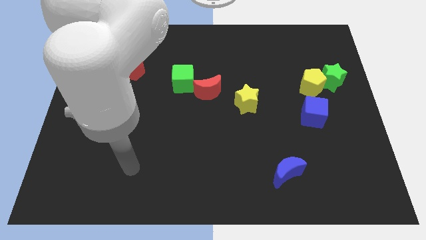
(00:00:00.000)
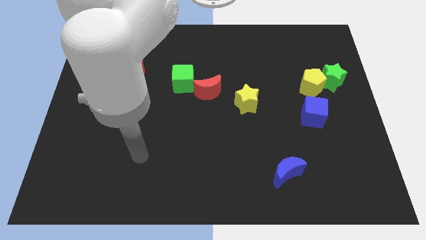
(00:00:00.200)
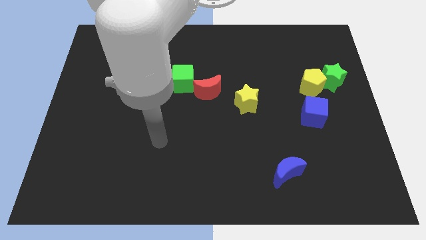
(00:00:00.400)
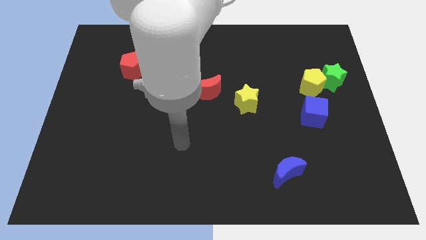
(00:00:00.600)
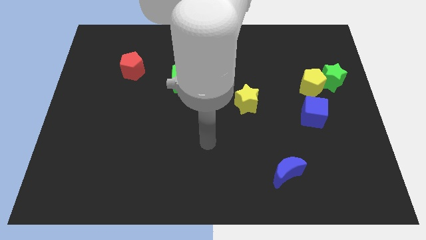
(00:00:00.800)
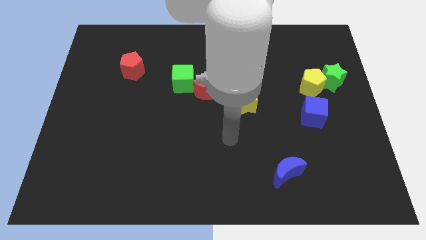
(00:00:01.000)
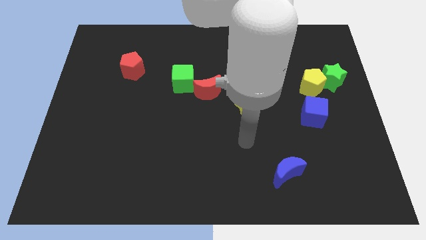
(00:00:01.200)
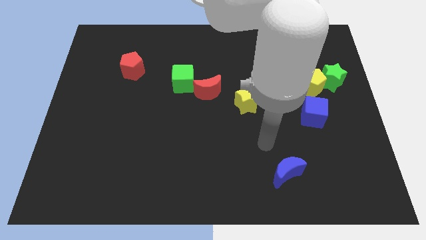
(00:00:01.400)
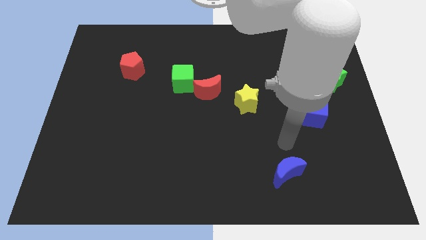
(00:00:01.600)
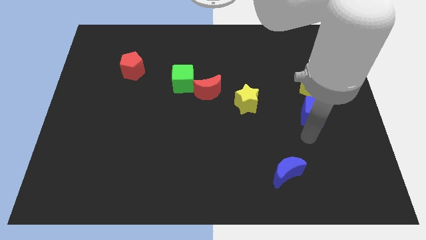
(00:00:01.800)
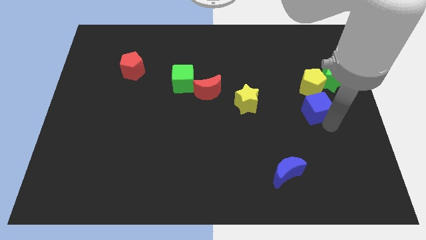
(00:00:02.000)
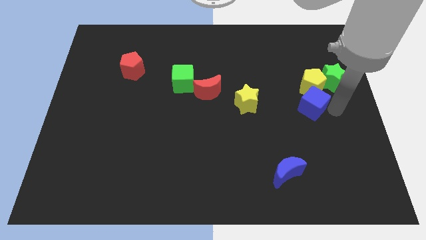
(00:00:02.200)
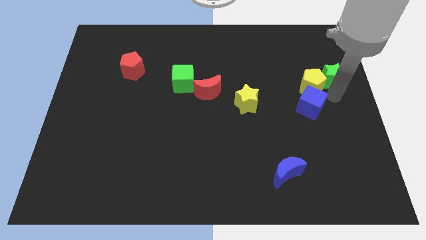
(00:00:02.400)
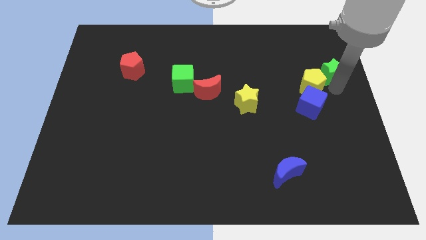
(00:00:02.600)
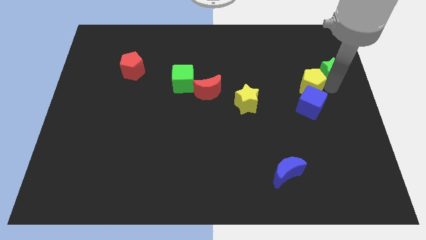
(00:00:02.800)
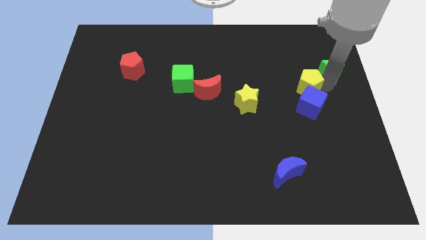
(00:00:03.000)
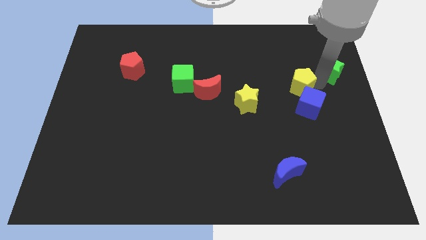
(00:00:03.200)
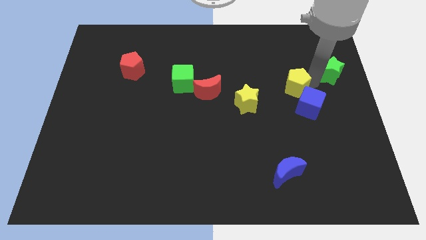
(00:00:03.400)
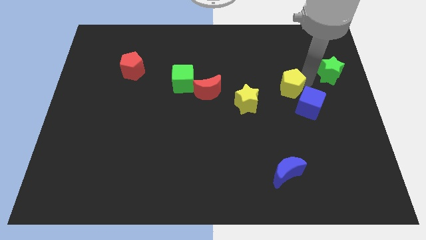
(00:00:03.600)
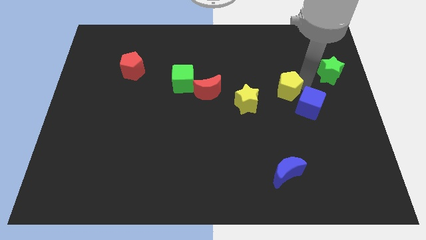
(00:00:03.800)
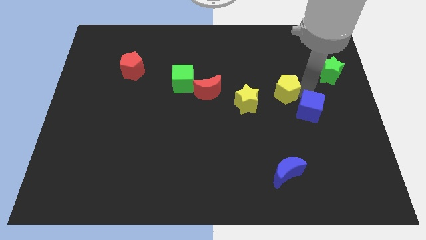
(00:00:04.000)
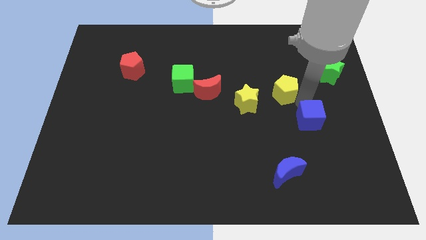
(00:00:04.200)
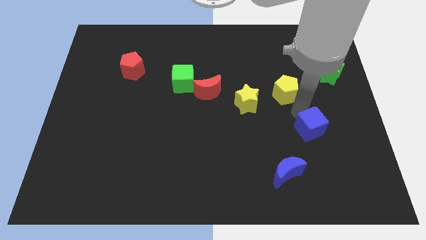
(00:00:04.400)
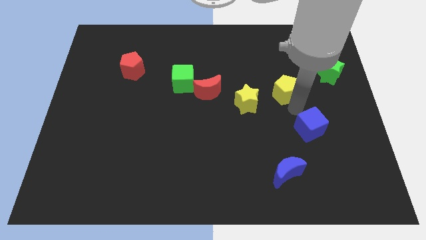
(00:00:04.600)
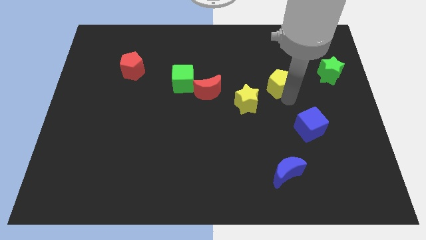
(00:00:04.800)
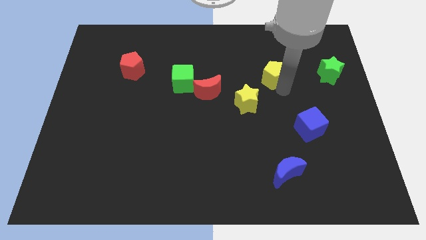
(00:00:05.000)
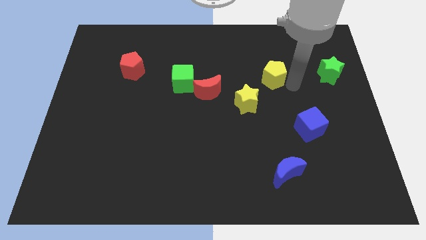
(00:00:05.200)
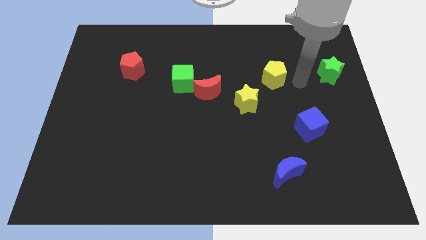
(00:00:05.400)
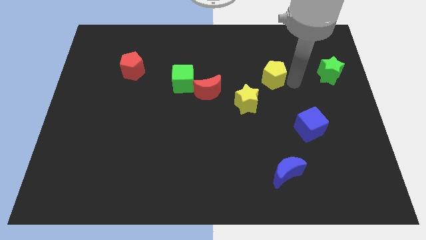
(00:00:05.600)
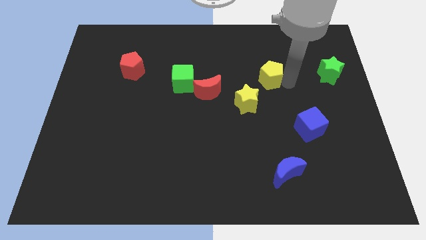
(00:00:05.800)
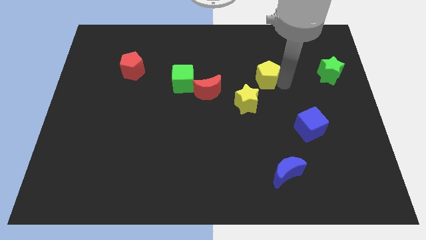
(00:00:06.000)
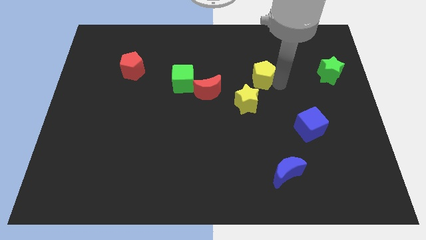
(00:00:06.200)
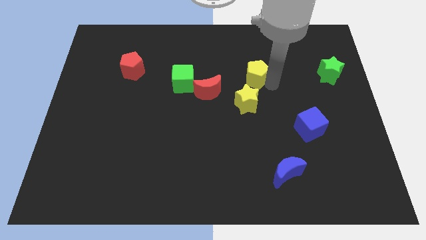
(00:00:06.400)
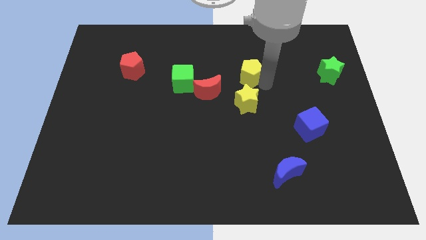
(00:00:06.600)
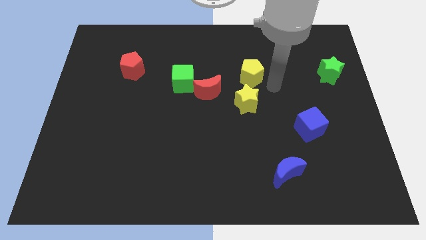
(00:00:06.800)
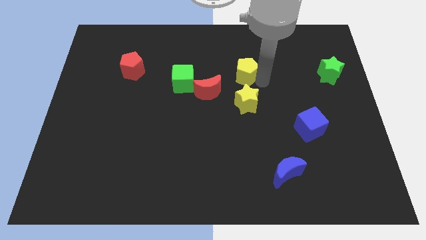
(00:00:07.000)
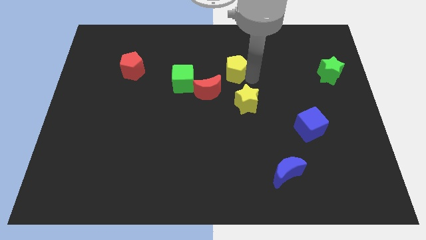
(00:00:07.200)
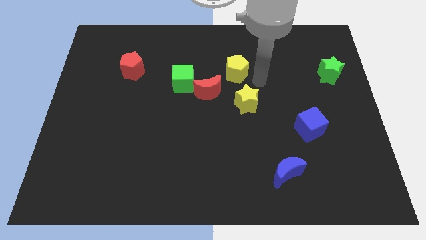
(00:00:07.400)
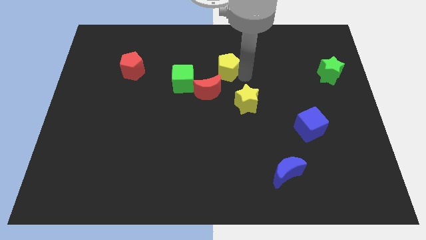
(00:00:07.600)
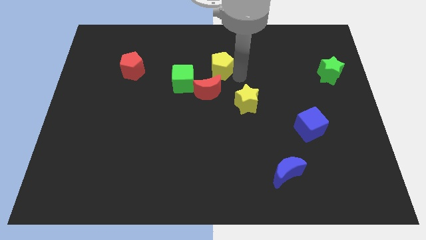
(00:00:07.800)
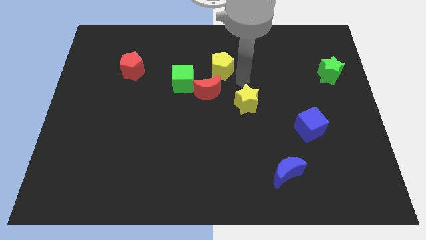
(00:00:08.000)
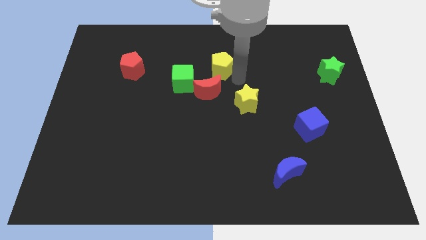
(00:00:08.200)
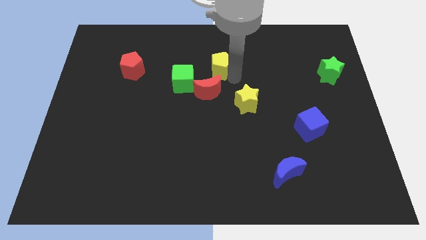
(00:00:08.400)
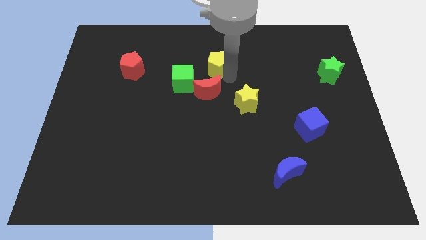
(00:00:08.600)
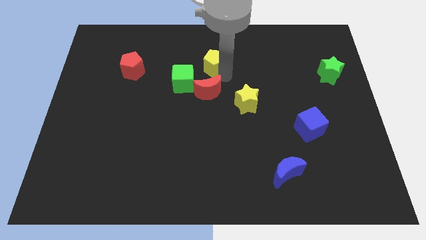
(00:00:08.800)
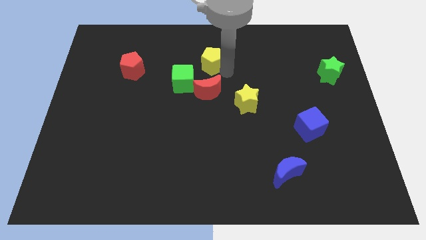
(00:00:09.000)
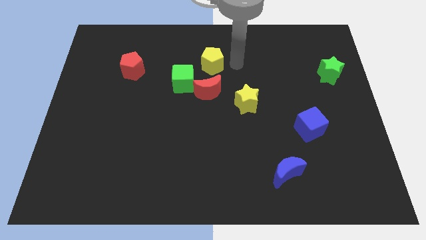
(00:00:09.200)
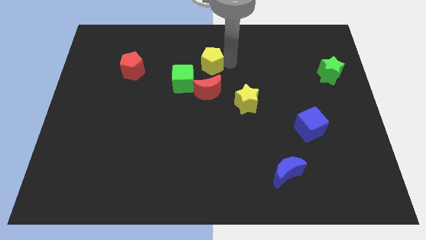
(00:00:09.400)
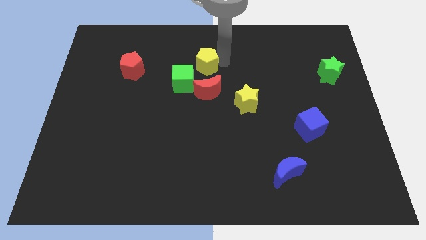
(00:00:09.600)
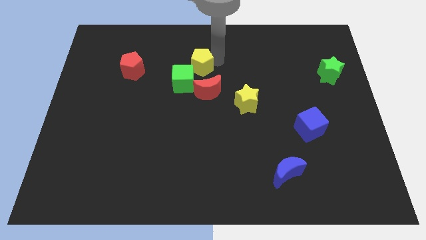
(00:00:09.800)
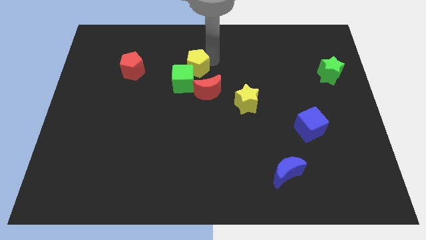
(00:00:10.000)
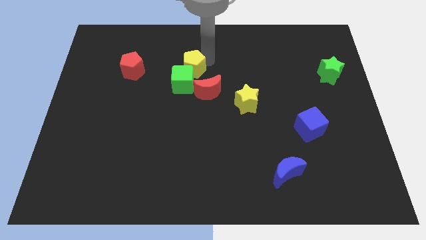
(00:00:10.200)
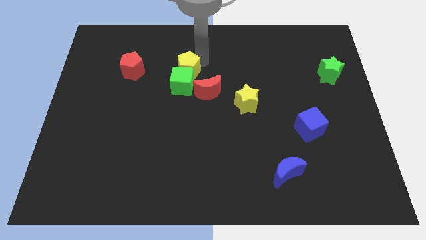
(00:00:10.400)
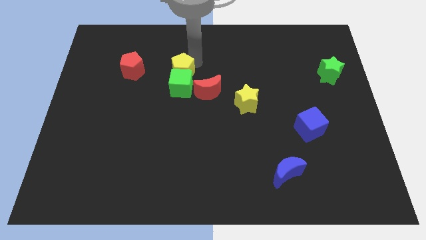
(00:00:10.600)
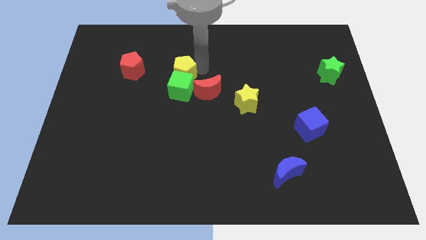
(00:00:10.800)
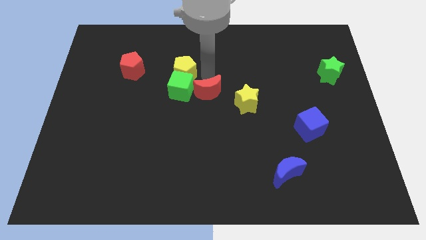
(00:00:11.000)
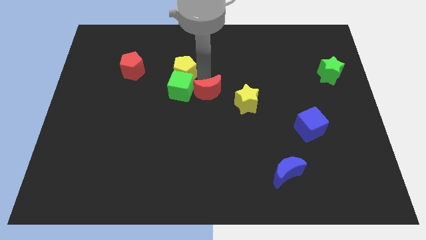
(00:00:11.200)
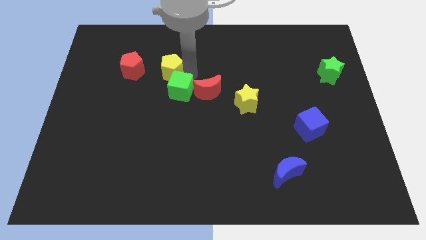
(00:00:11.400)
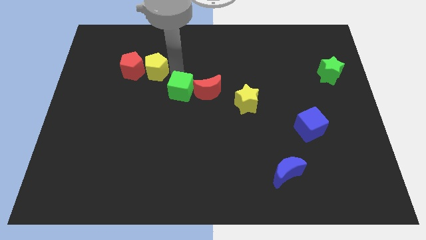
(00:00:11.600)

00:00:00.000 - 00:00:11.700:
put the yellow pentagon to the red pentagon
